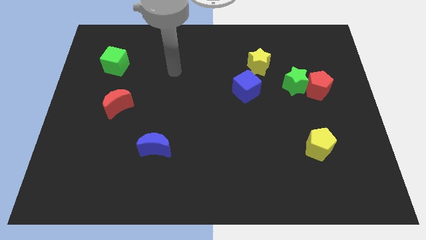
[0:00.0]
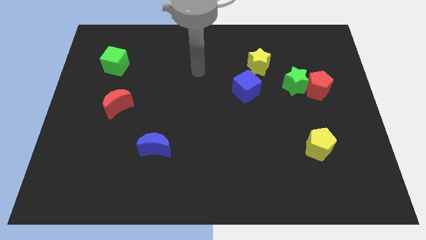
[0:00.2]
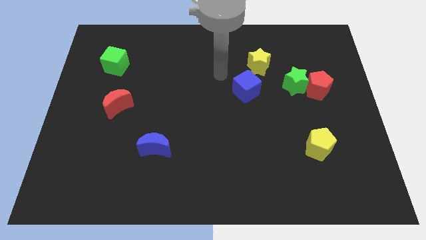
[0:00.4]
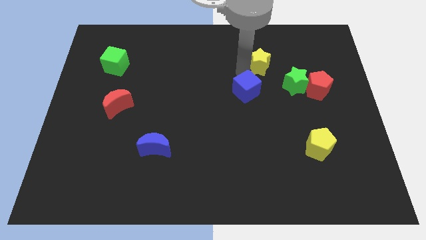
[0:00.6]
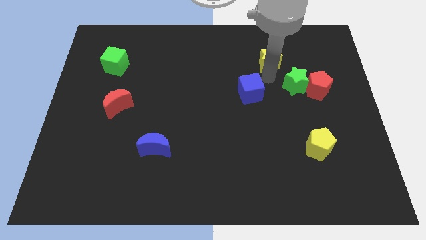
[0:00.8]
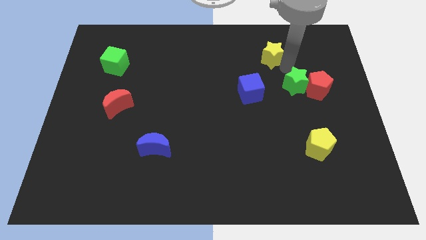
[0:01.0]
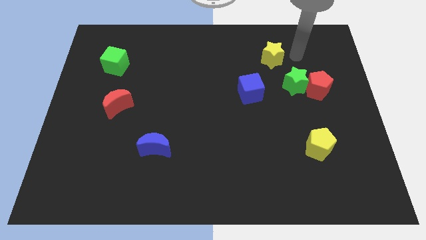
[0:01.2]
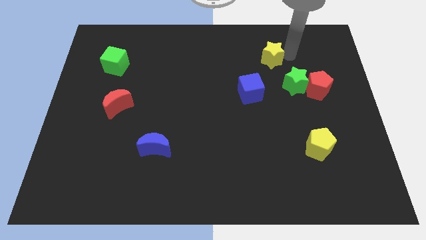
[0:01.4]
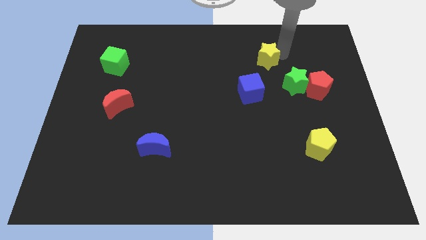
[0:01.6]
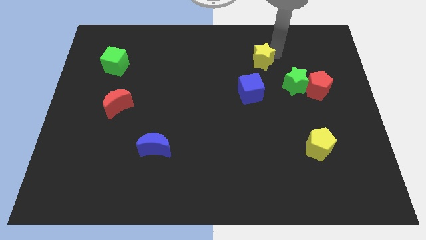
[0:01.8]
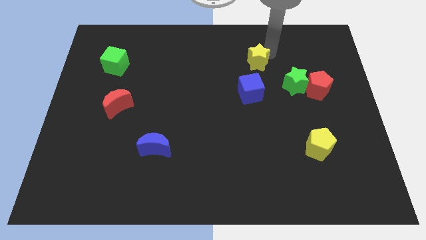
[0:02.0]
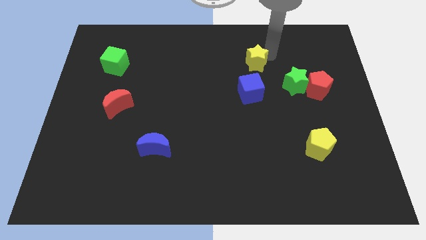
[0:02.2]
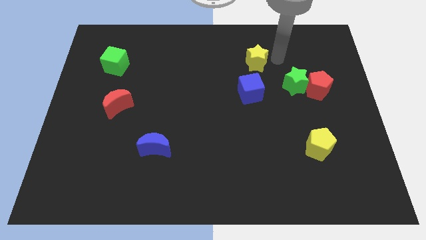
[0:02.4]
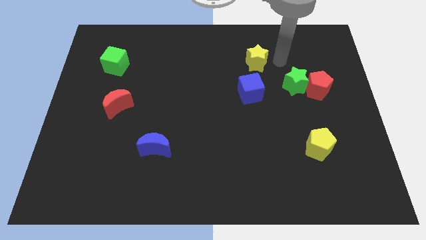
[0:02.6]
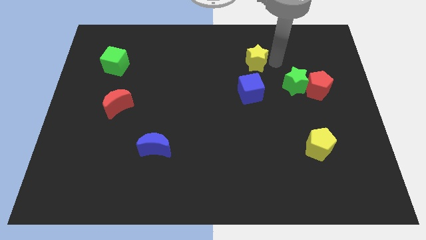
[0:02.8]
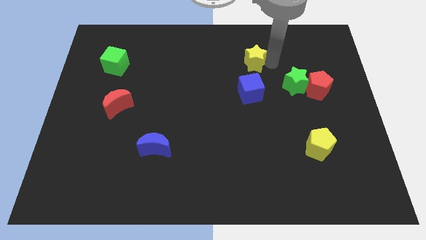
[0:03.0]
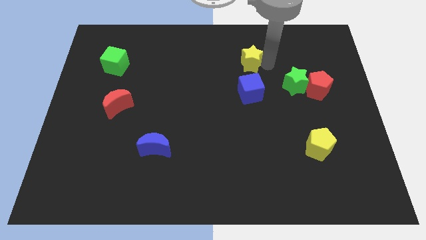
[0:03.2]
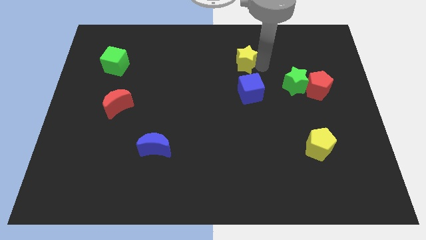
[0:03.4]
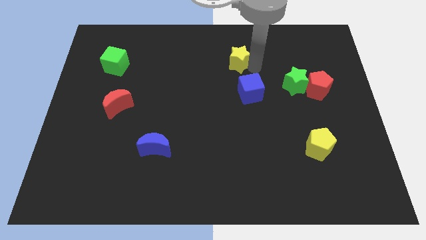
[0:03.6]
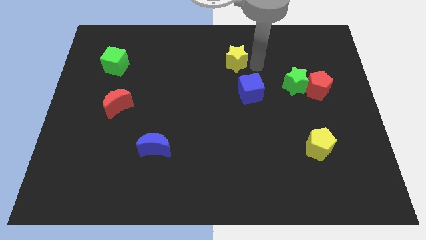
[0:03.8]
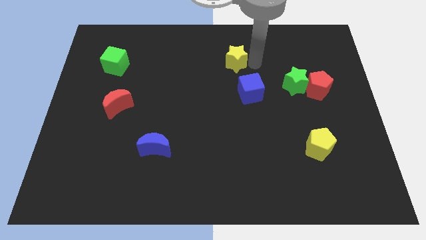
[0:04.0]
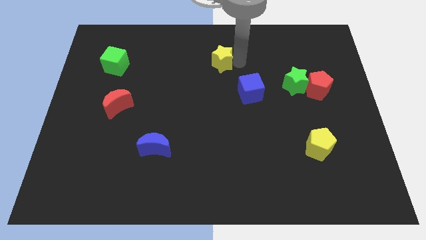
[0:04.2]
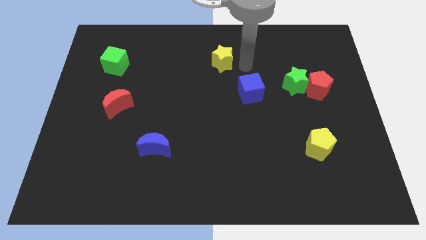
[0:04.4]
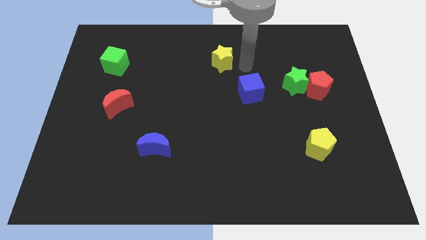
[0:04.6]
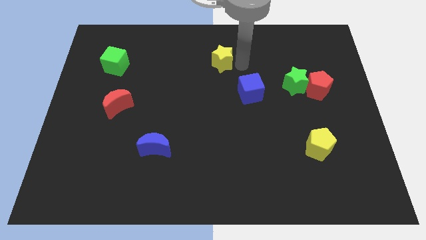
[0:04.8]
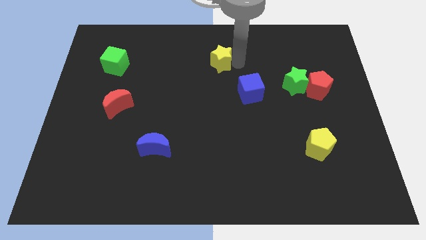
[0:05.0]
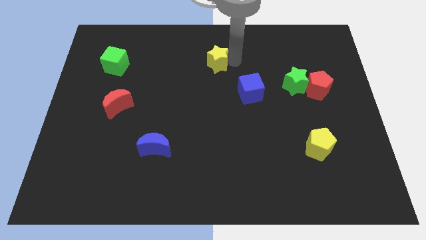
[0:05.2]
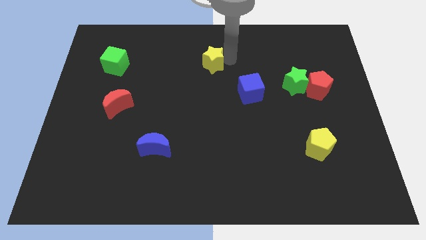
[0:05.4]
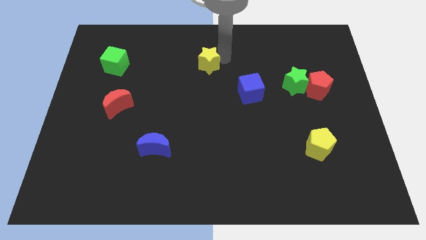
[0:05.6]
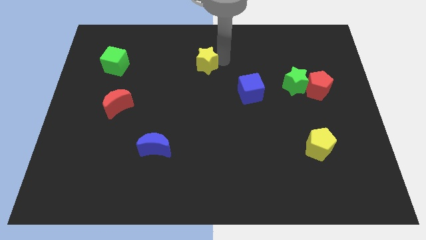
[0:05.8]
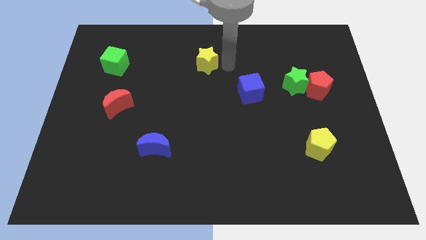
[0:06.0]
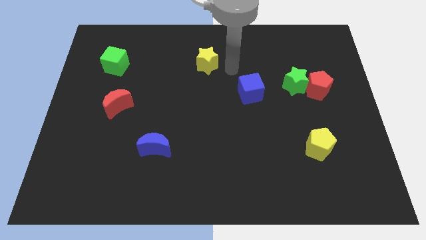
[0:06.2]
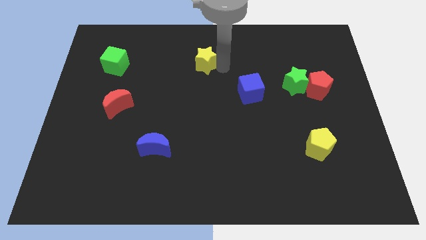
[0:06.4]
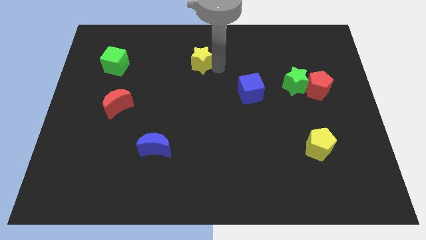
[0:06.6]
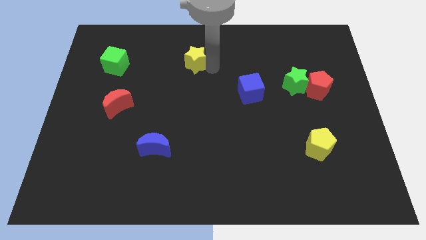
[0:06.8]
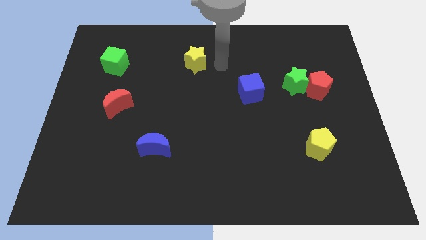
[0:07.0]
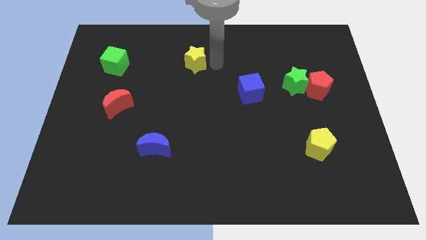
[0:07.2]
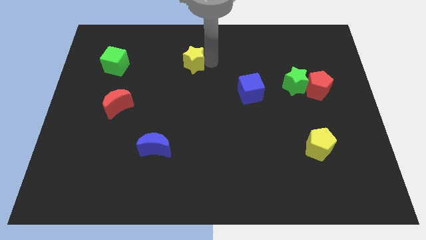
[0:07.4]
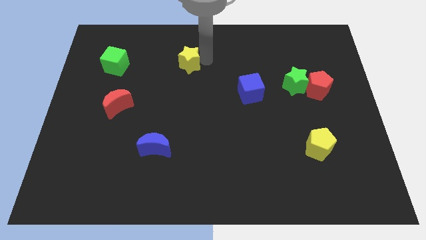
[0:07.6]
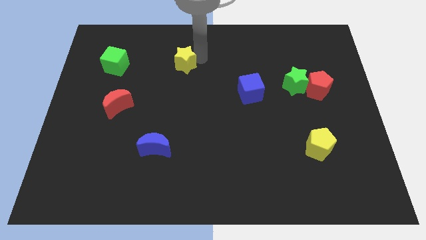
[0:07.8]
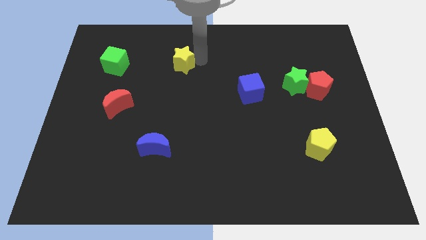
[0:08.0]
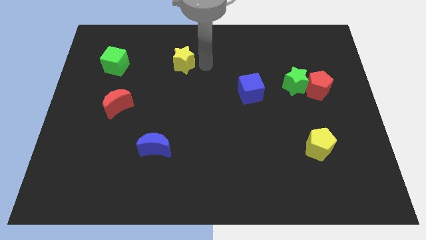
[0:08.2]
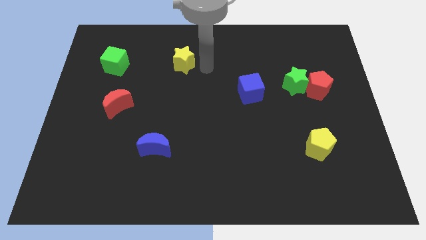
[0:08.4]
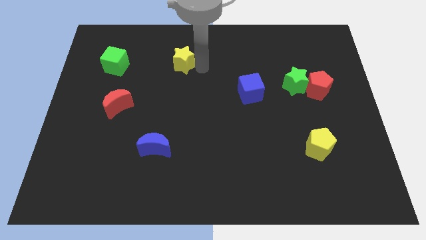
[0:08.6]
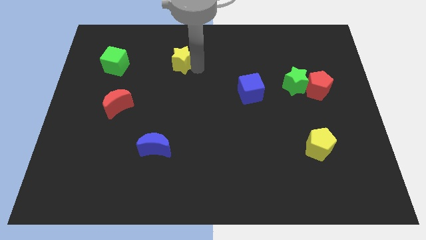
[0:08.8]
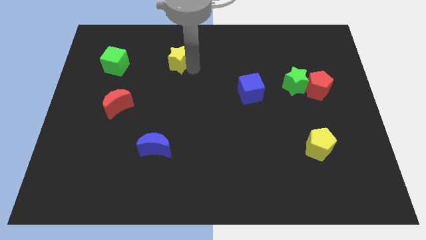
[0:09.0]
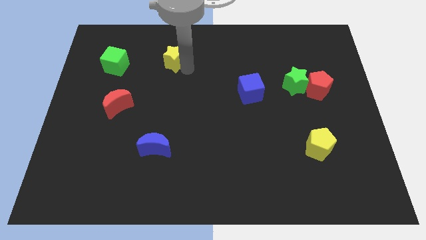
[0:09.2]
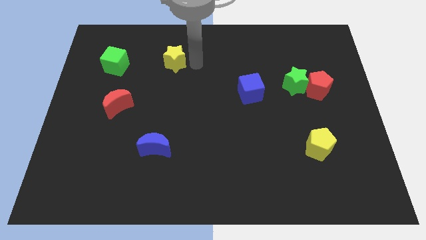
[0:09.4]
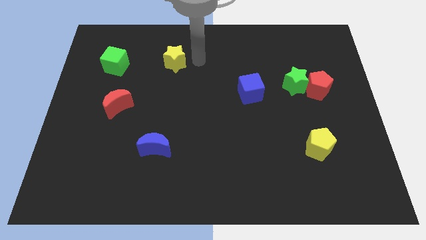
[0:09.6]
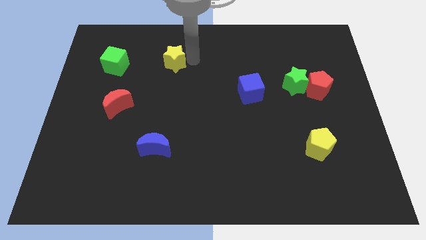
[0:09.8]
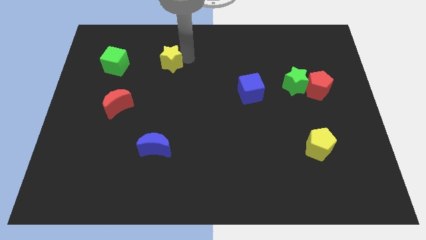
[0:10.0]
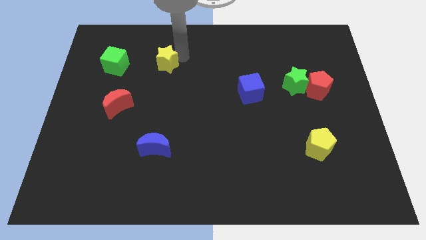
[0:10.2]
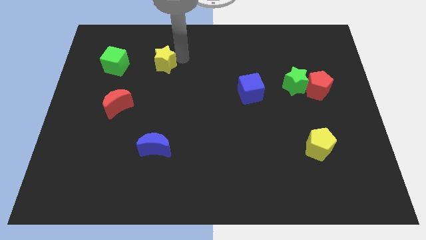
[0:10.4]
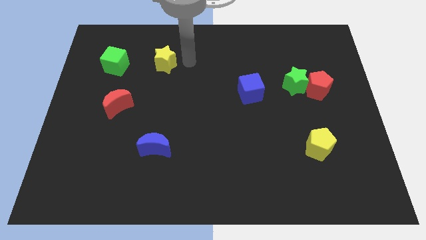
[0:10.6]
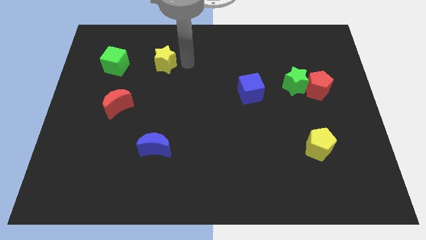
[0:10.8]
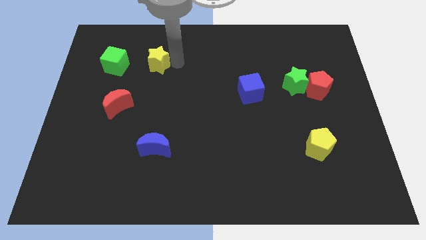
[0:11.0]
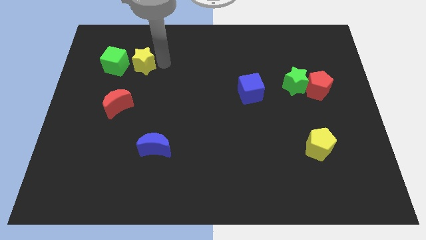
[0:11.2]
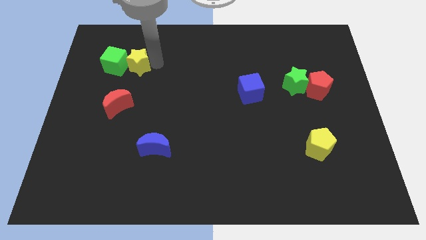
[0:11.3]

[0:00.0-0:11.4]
slide the yellow star to the green cube
